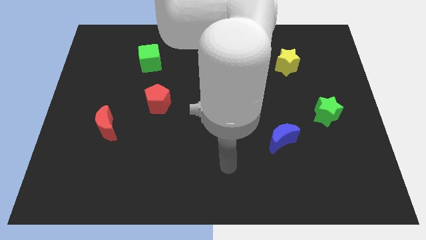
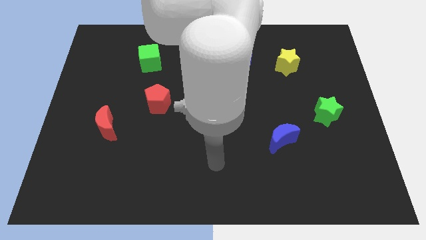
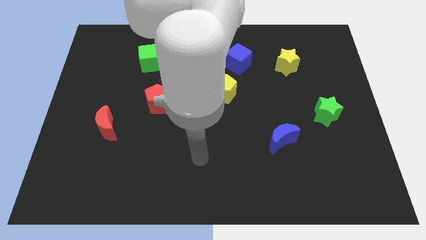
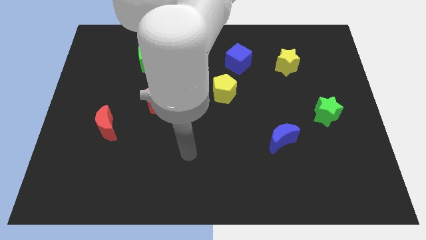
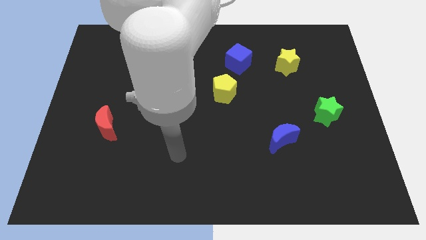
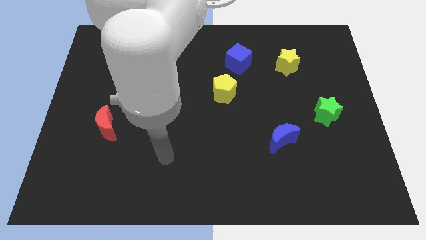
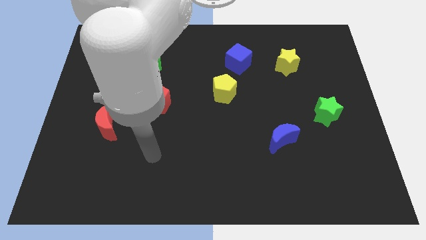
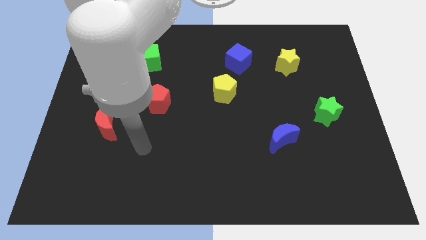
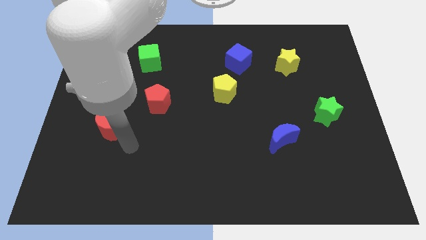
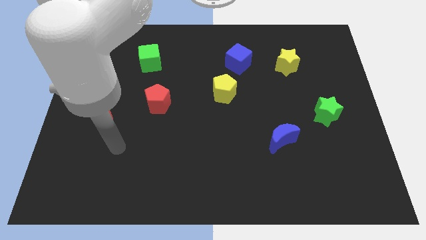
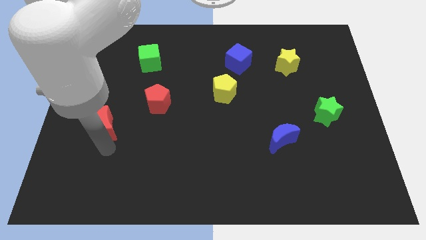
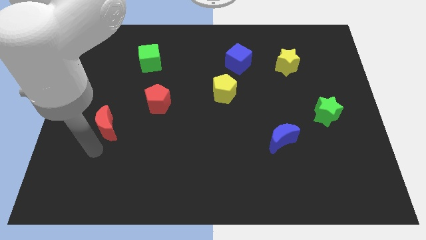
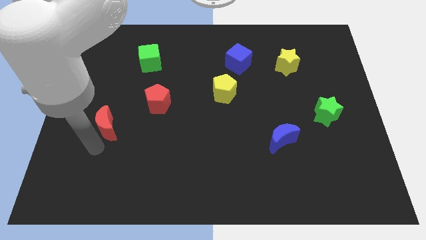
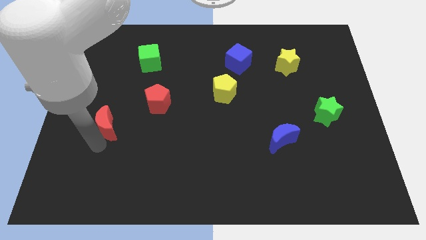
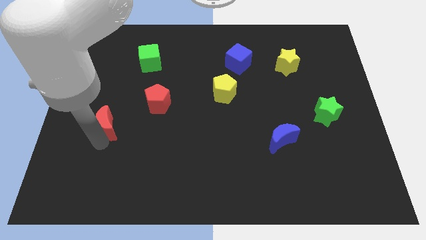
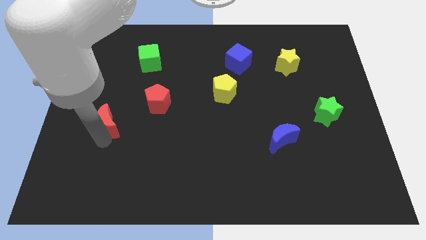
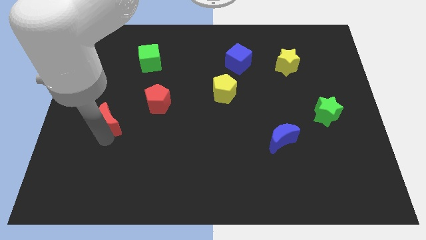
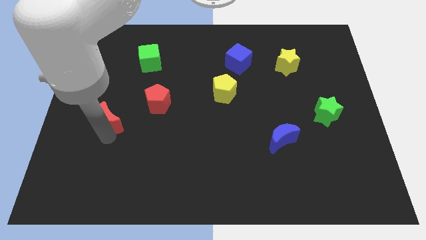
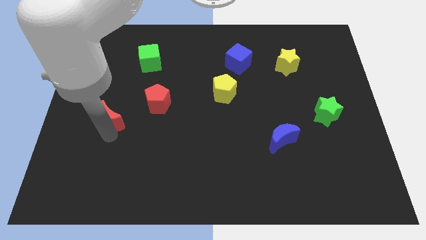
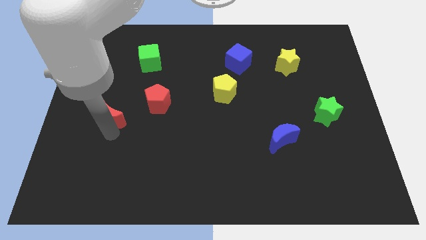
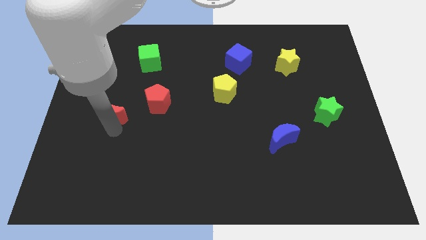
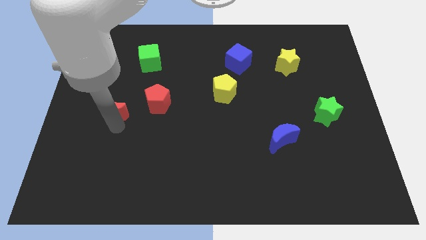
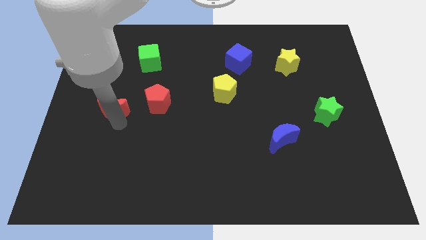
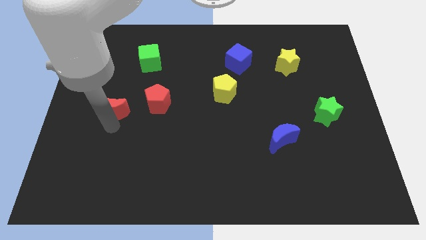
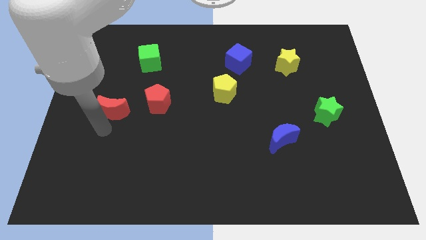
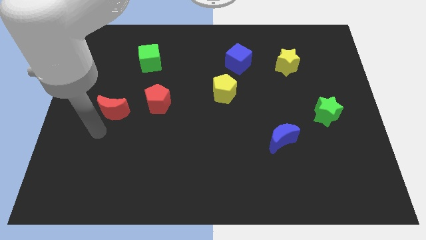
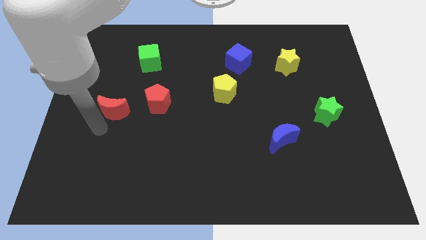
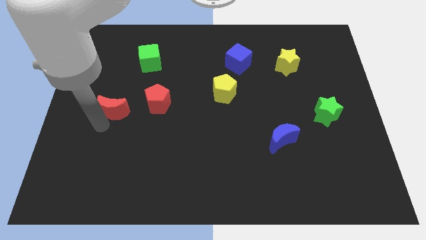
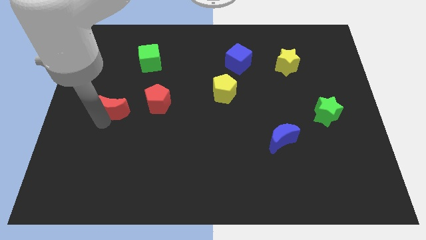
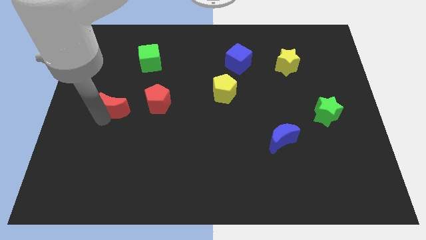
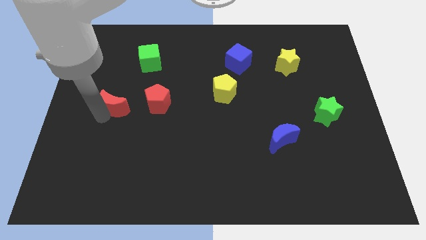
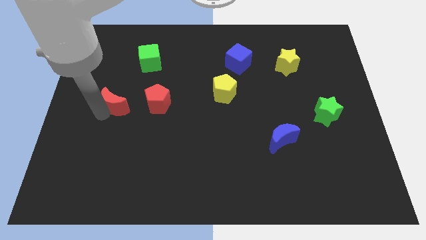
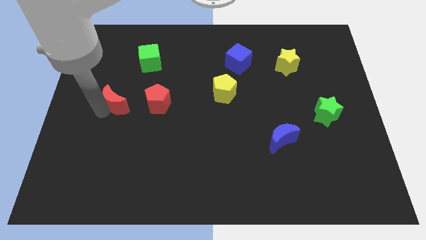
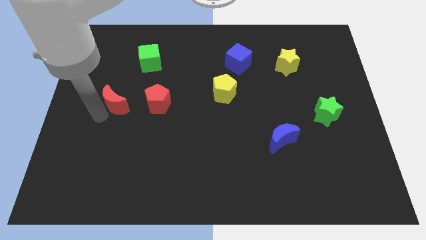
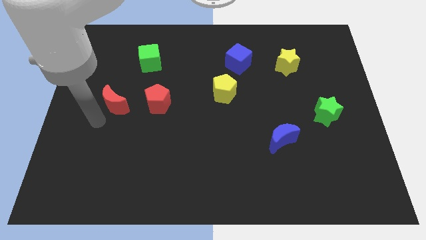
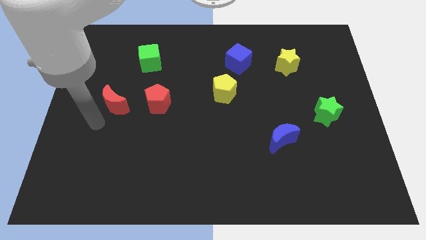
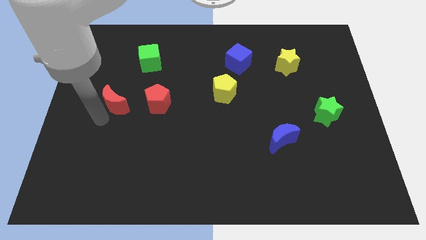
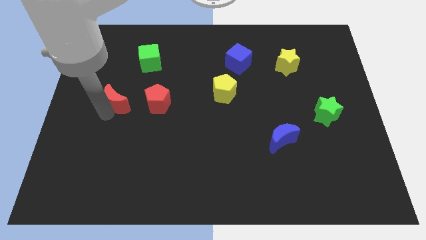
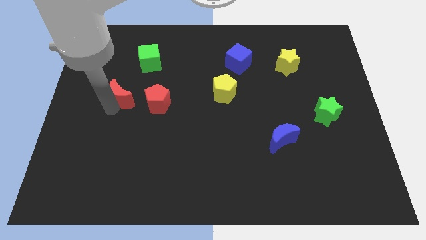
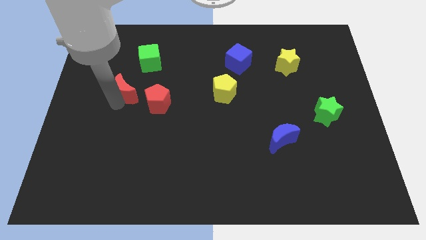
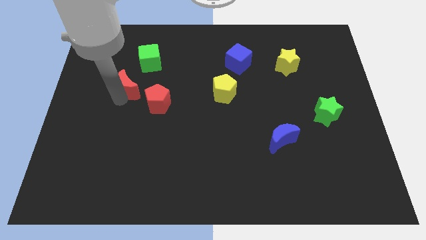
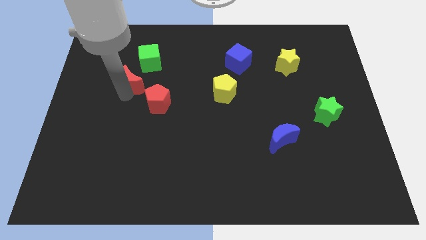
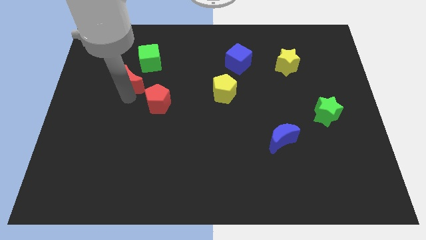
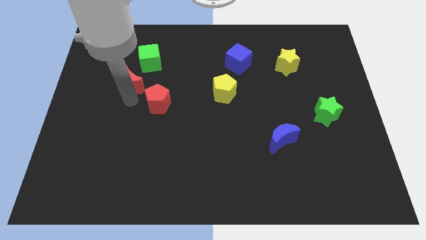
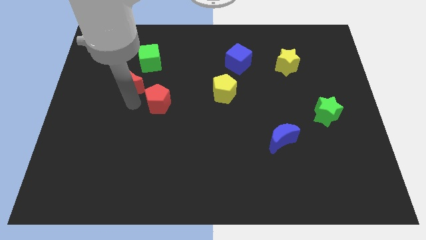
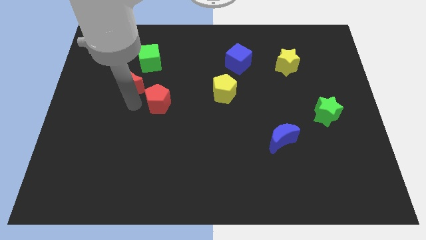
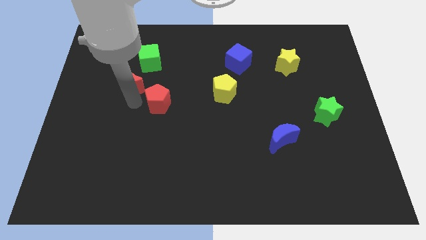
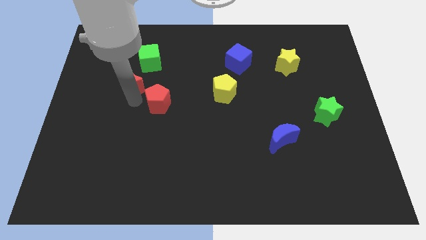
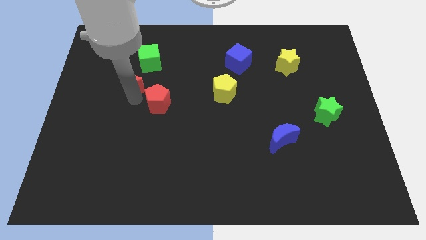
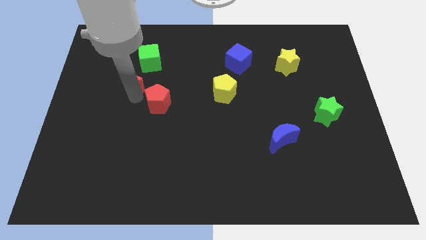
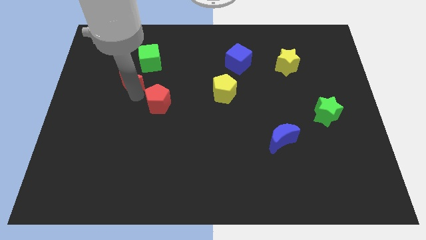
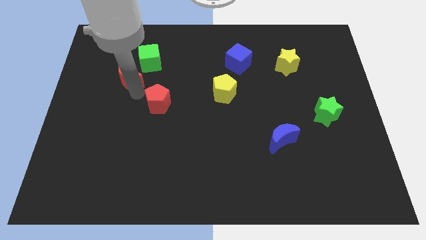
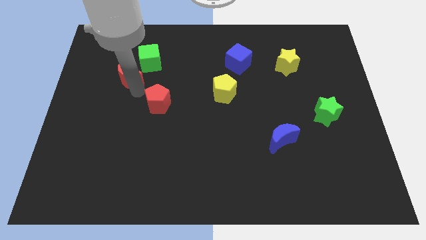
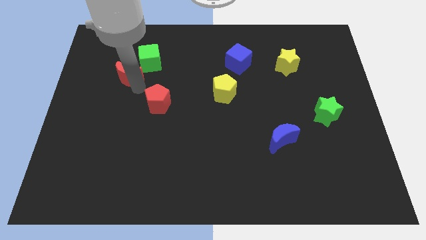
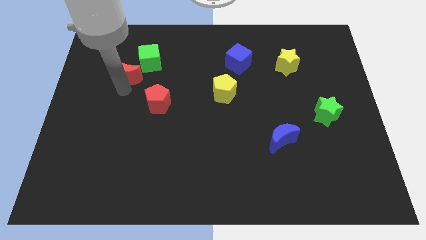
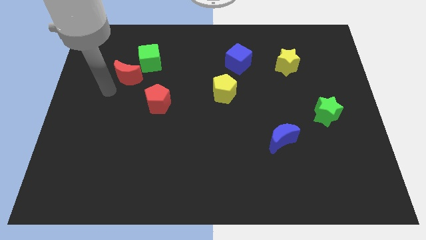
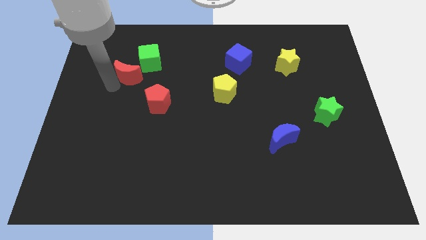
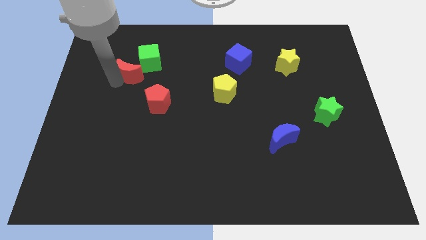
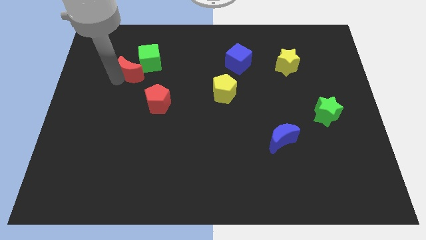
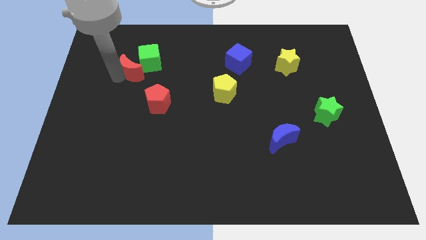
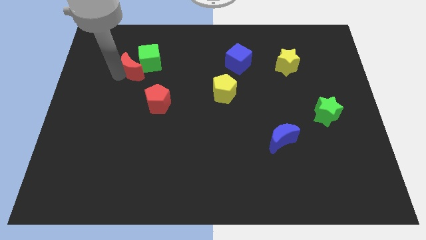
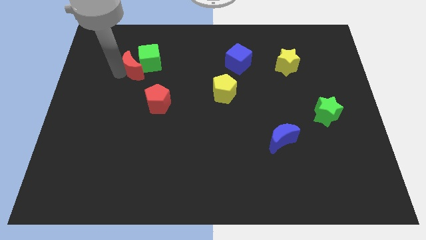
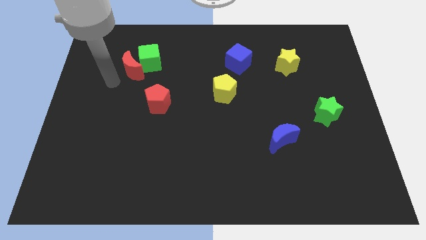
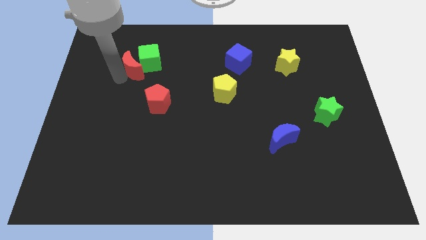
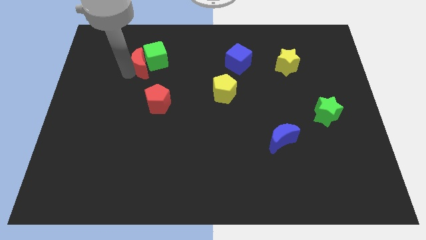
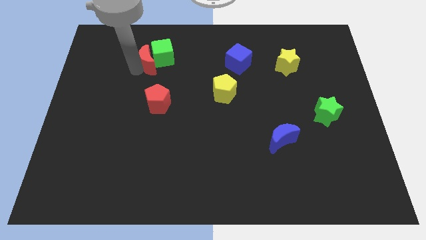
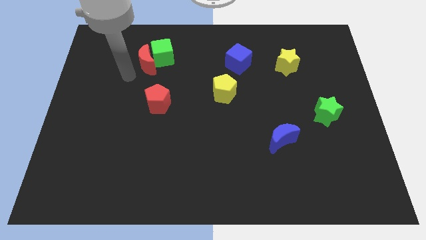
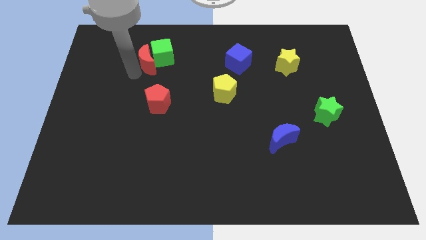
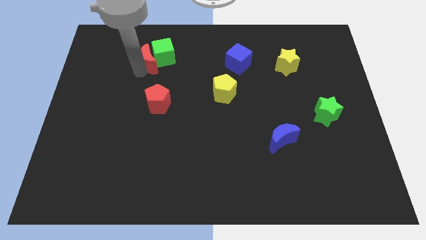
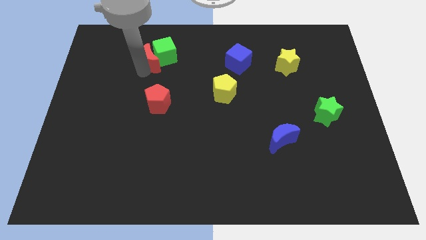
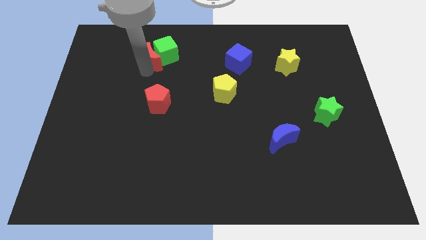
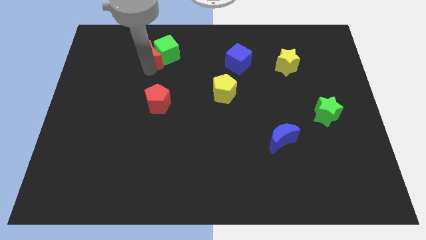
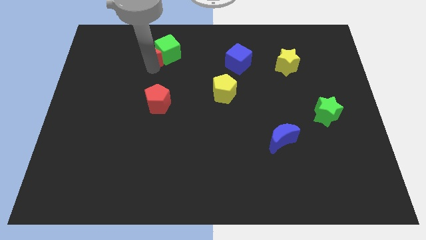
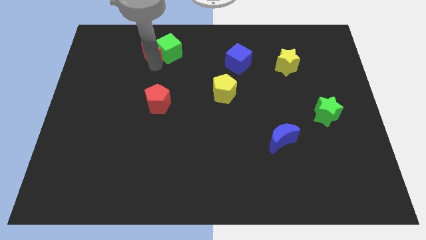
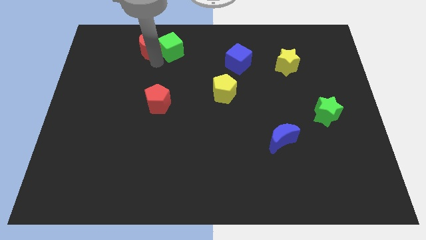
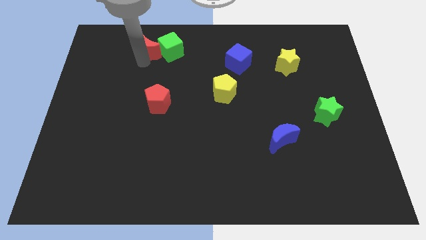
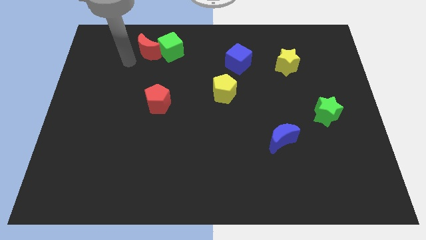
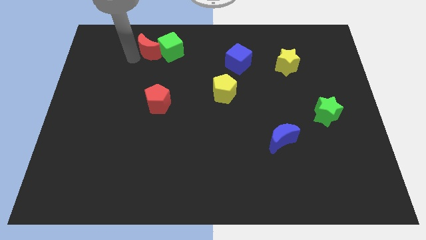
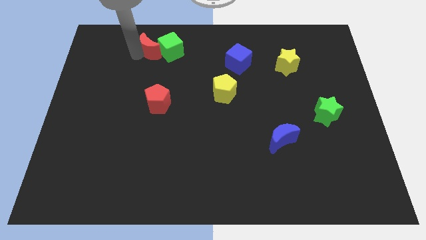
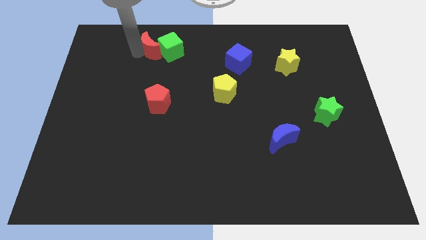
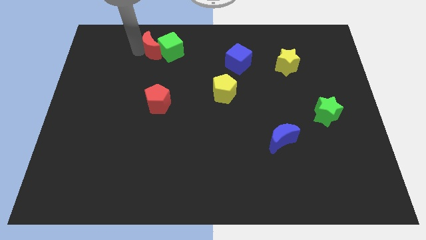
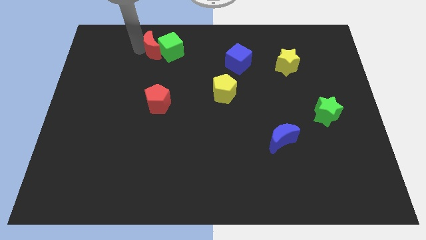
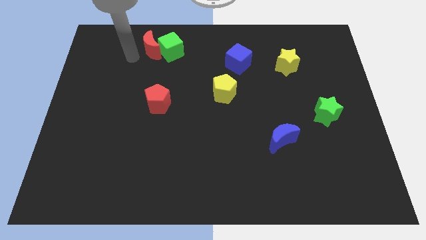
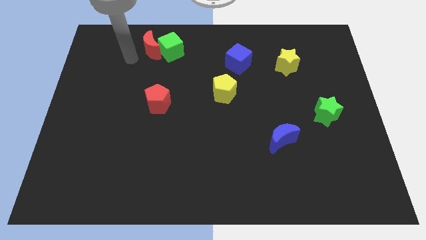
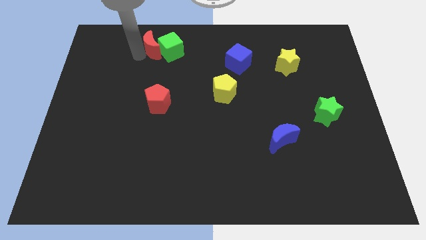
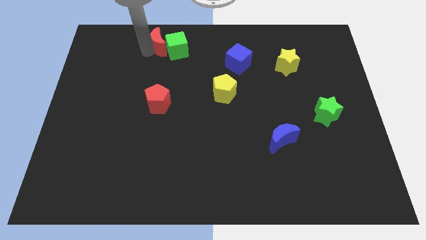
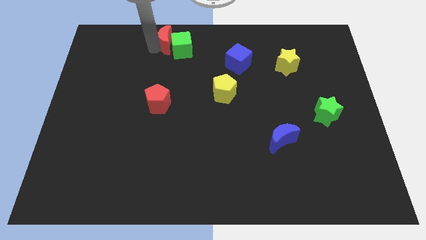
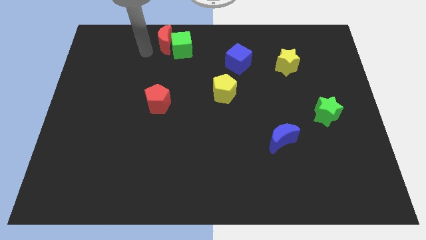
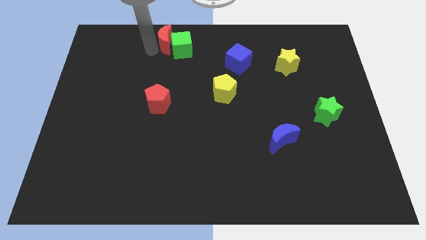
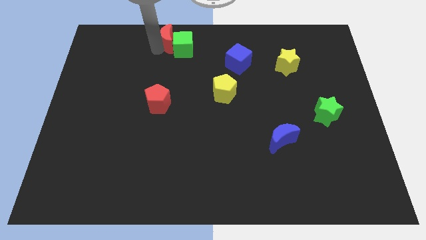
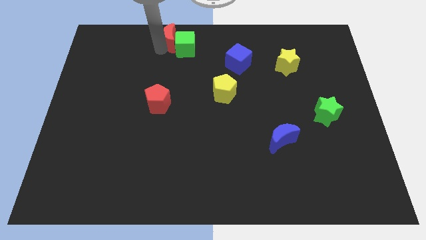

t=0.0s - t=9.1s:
push the red moon to the towards your base
